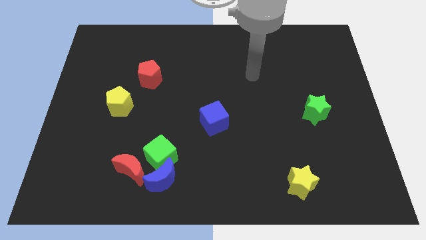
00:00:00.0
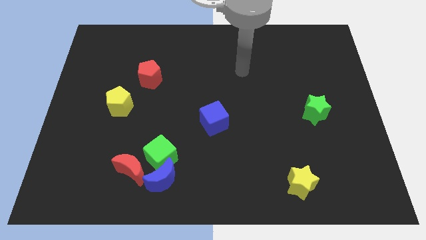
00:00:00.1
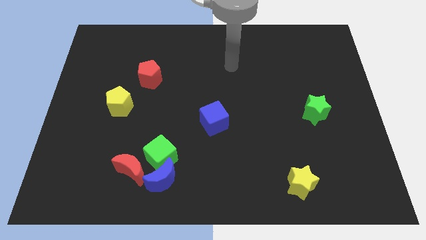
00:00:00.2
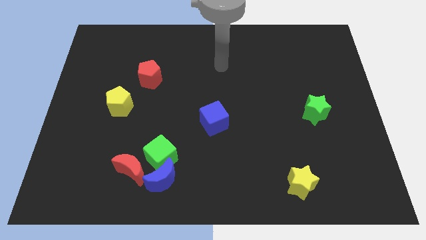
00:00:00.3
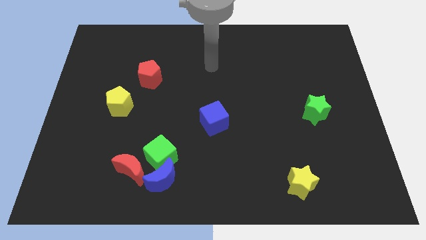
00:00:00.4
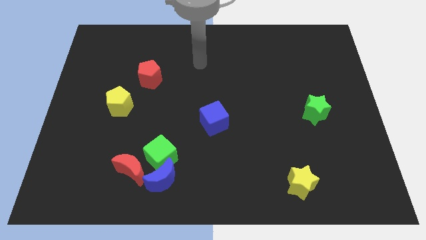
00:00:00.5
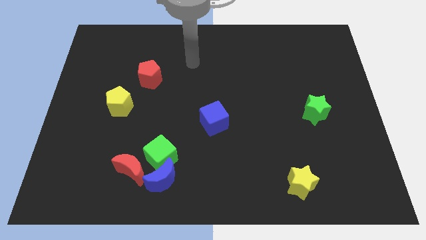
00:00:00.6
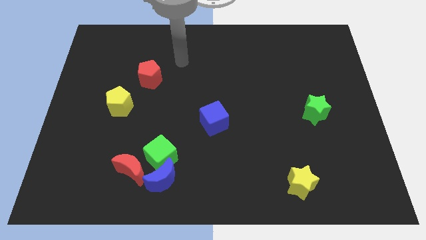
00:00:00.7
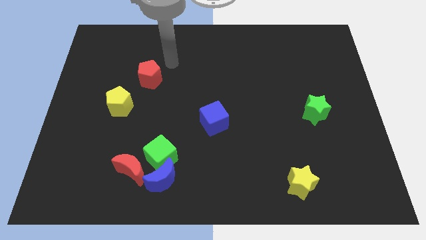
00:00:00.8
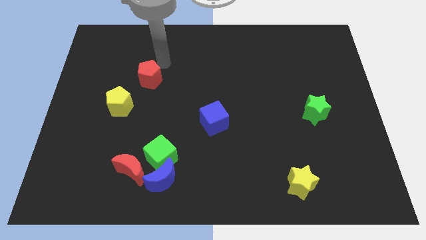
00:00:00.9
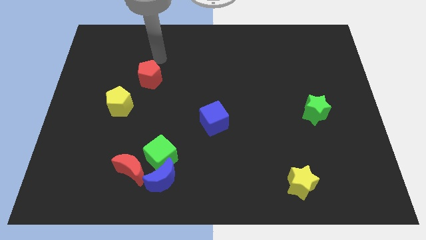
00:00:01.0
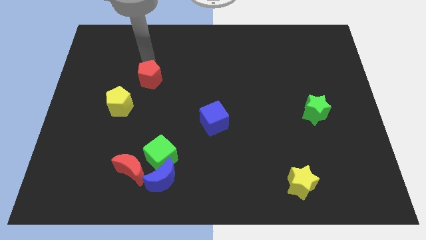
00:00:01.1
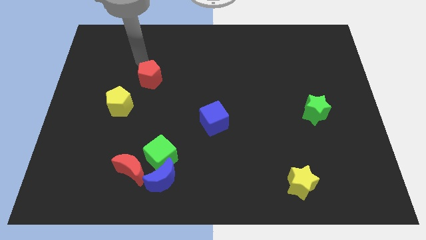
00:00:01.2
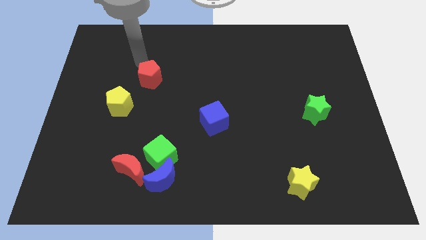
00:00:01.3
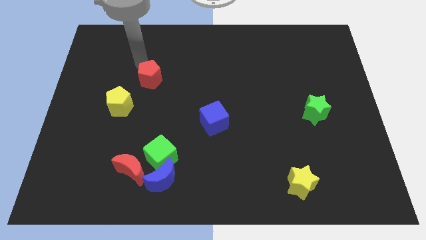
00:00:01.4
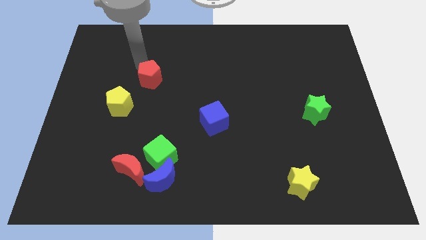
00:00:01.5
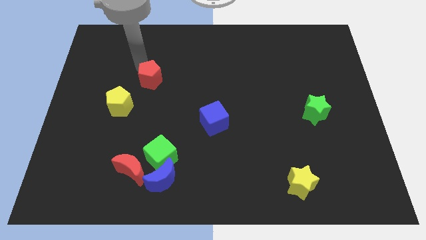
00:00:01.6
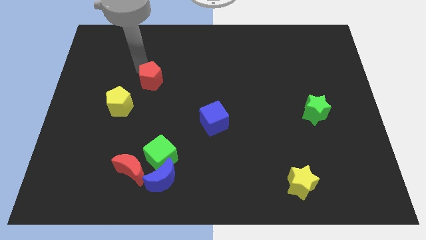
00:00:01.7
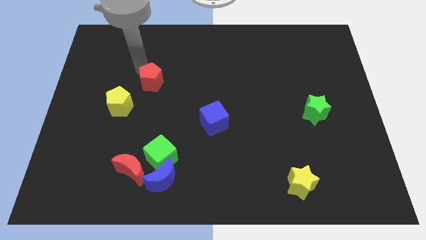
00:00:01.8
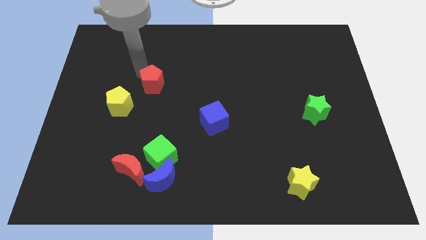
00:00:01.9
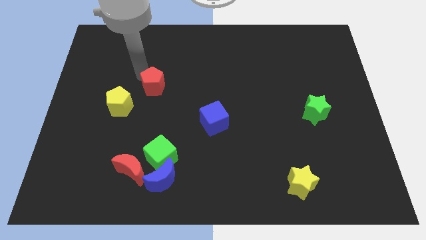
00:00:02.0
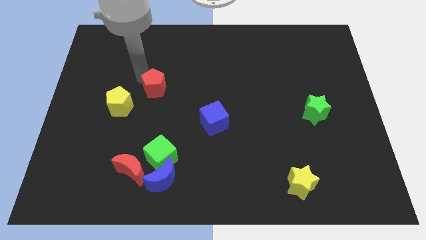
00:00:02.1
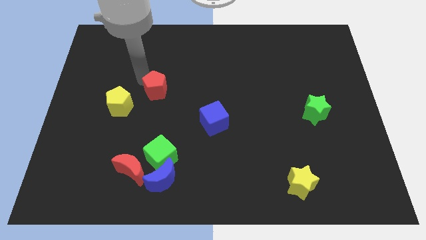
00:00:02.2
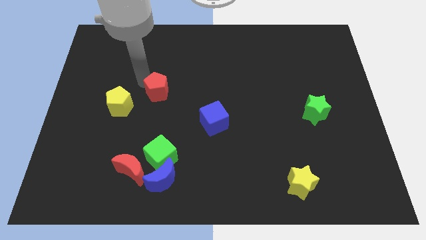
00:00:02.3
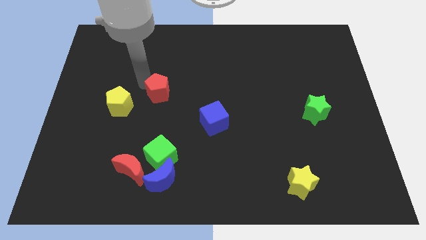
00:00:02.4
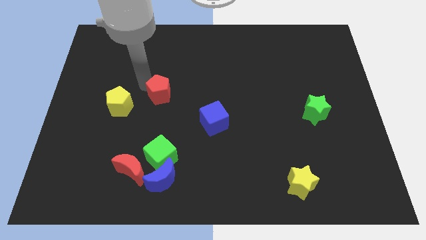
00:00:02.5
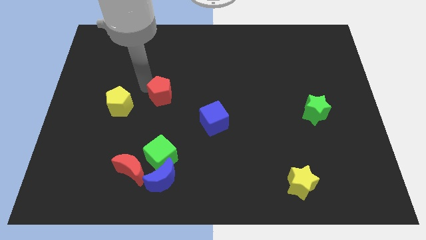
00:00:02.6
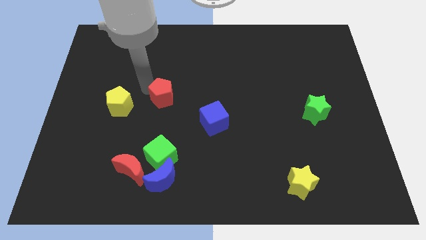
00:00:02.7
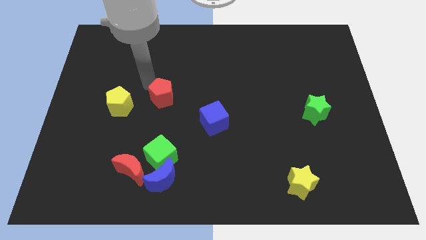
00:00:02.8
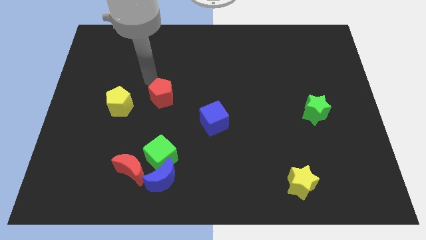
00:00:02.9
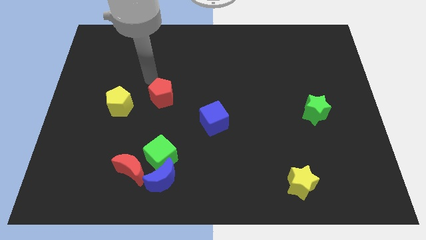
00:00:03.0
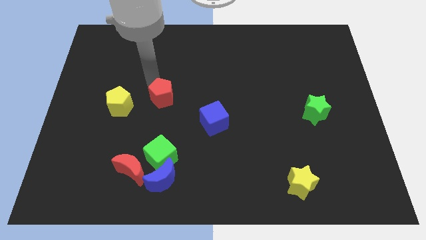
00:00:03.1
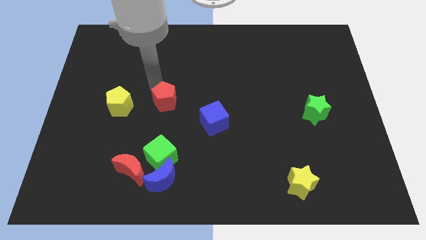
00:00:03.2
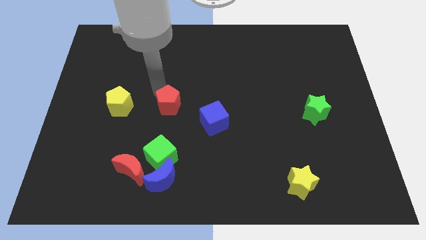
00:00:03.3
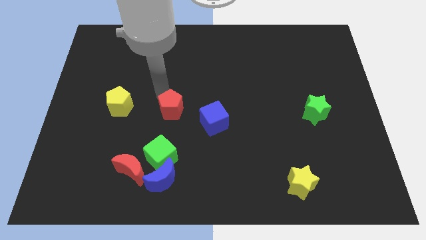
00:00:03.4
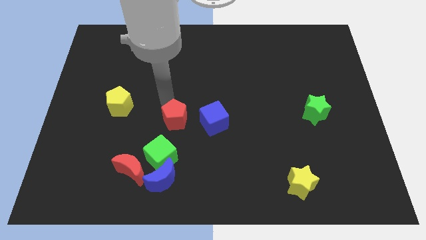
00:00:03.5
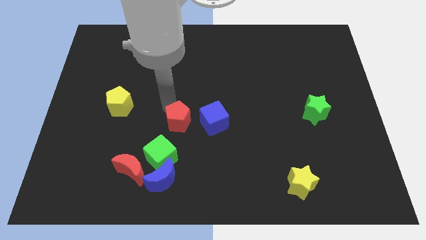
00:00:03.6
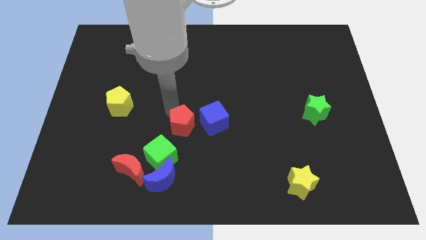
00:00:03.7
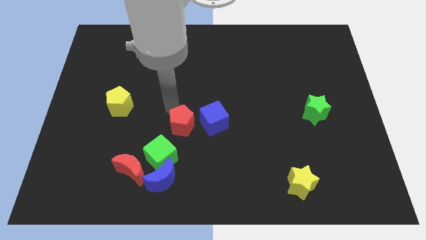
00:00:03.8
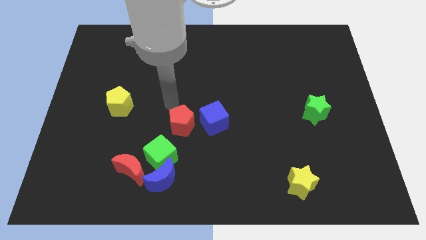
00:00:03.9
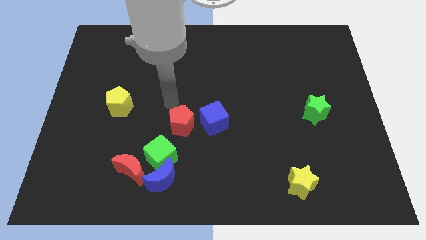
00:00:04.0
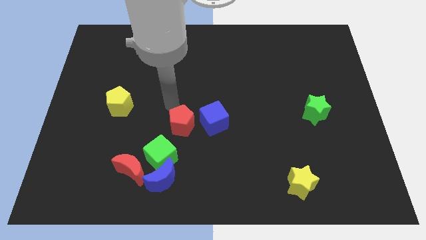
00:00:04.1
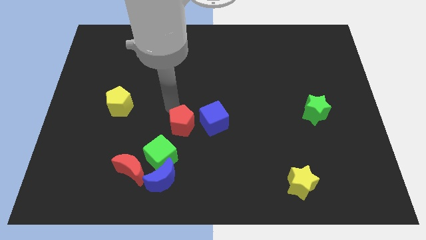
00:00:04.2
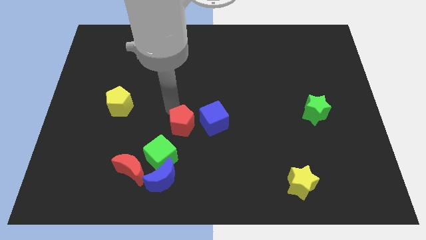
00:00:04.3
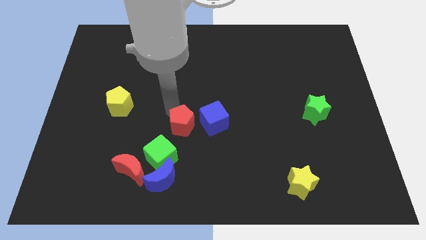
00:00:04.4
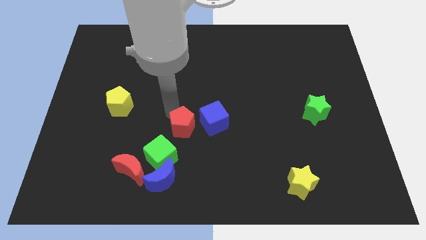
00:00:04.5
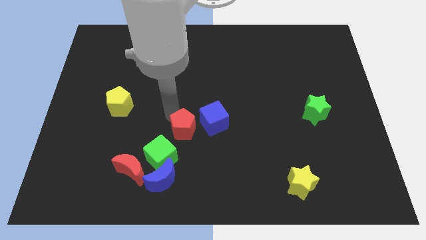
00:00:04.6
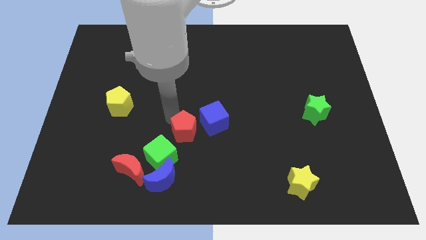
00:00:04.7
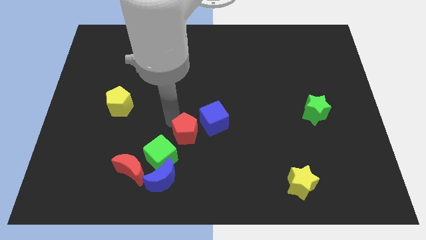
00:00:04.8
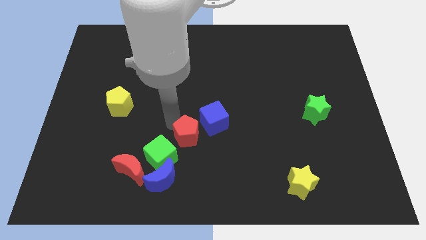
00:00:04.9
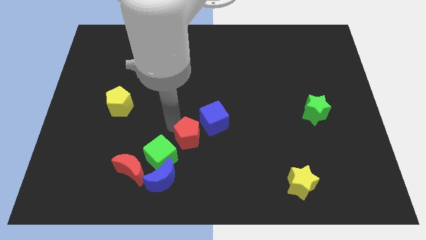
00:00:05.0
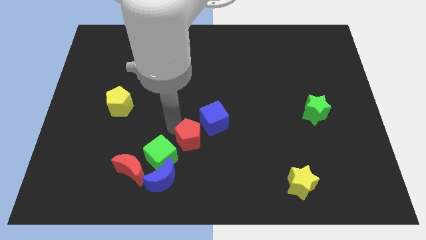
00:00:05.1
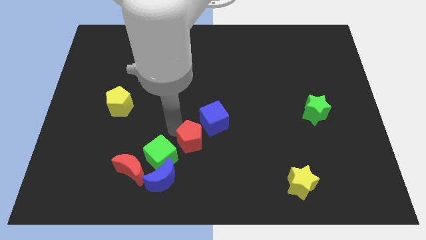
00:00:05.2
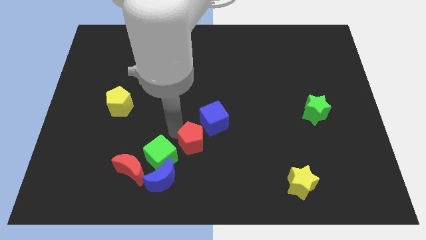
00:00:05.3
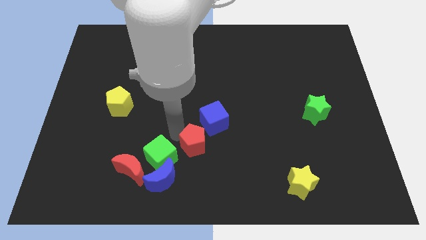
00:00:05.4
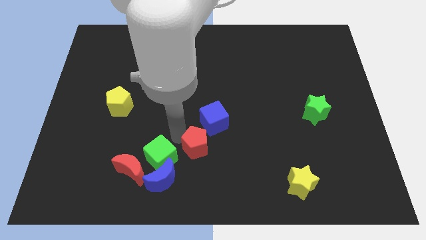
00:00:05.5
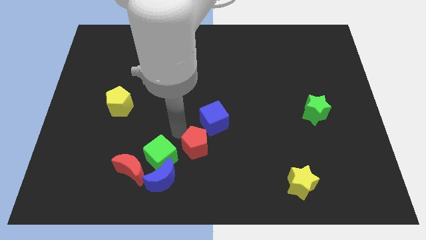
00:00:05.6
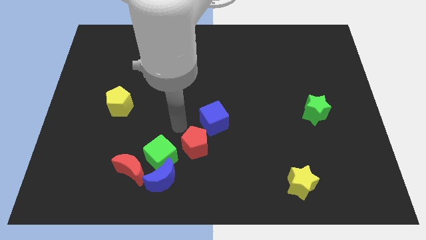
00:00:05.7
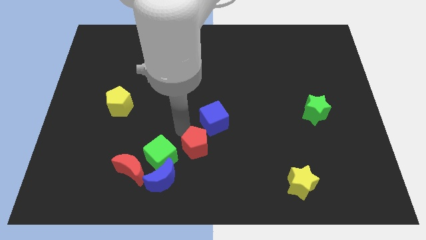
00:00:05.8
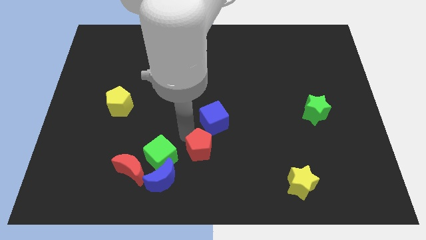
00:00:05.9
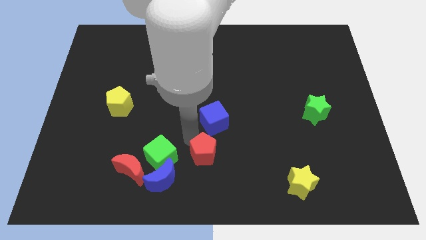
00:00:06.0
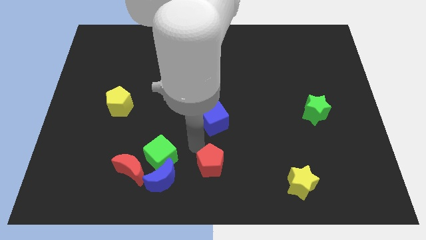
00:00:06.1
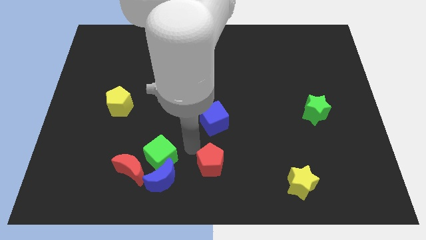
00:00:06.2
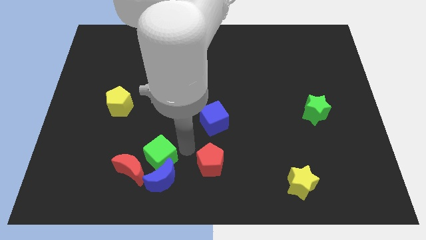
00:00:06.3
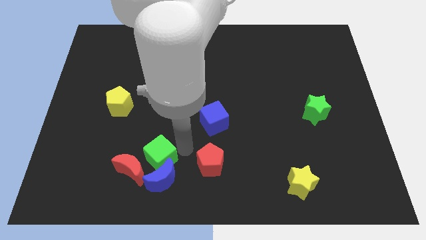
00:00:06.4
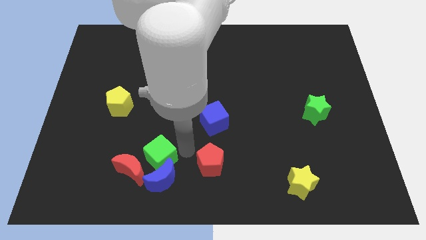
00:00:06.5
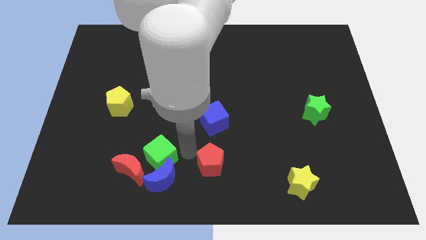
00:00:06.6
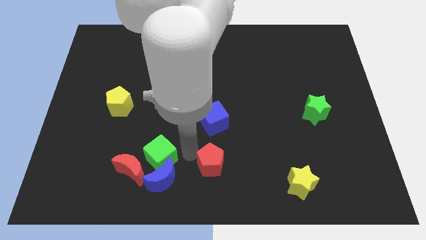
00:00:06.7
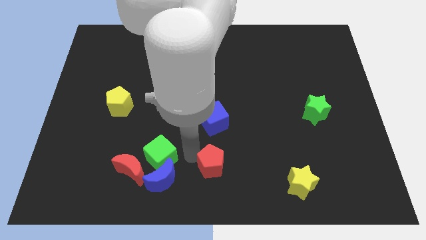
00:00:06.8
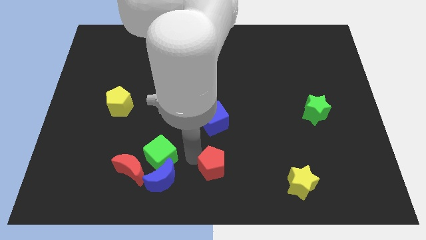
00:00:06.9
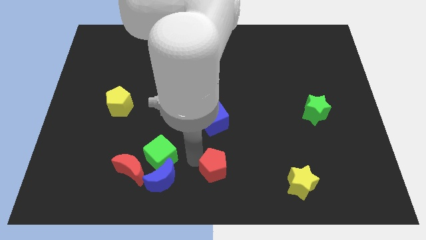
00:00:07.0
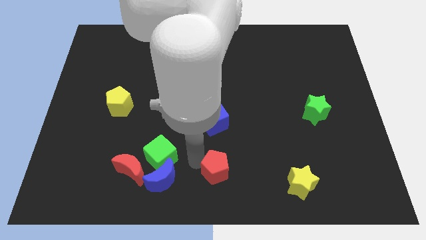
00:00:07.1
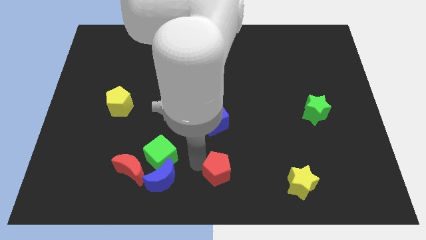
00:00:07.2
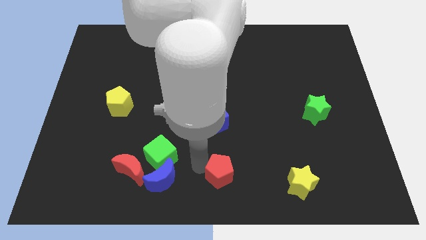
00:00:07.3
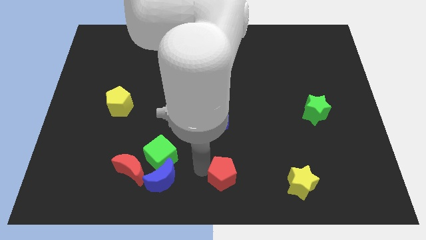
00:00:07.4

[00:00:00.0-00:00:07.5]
put the red pentagon left of the yellow star

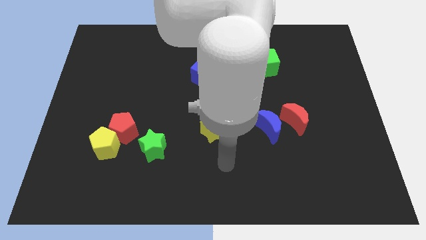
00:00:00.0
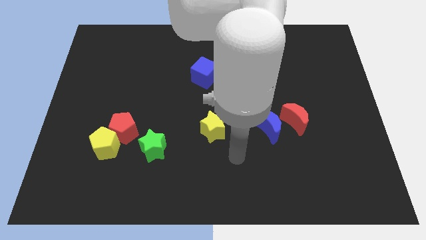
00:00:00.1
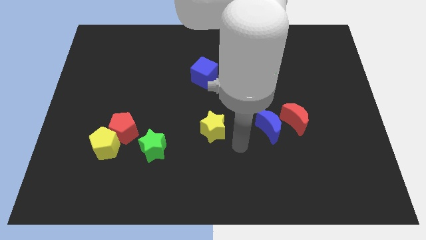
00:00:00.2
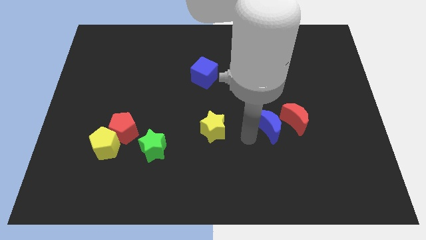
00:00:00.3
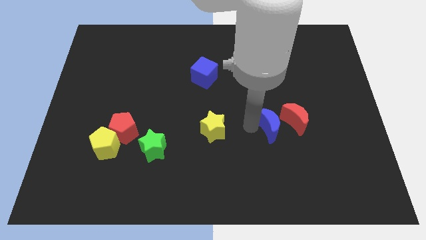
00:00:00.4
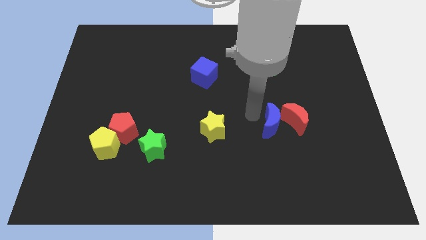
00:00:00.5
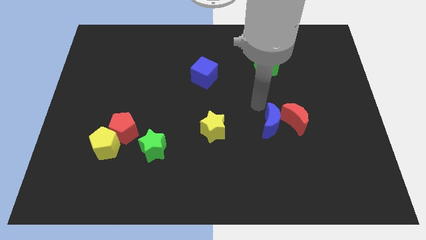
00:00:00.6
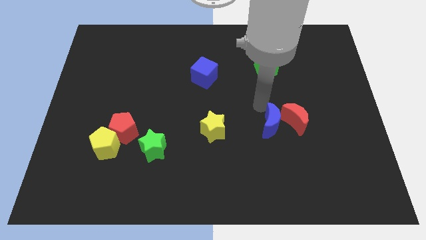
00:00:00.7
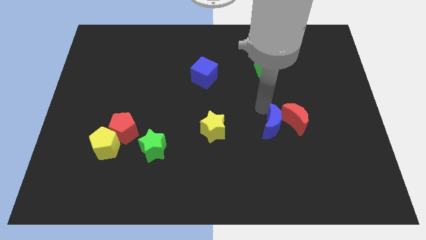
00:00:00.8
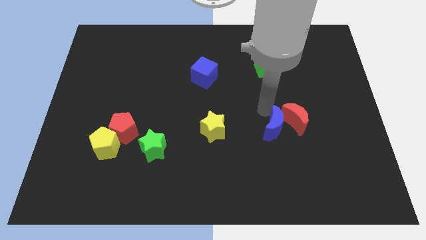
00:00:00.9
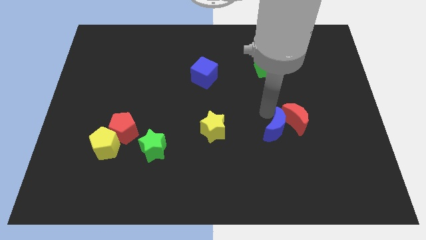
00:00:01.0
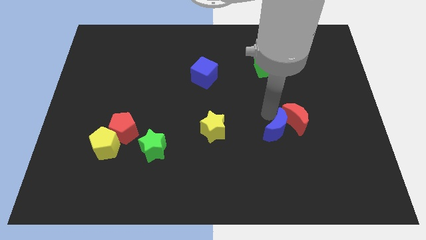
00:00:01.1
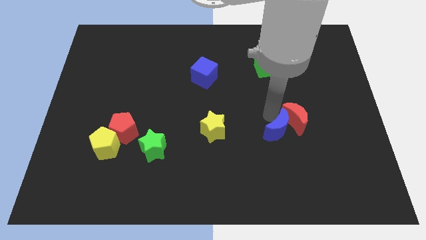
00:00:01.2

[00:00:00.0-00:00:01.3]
push the blue moon to the bottom side of the red moon
